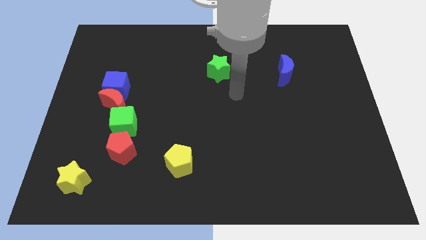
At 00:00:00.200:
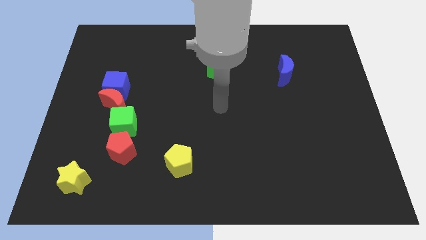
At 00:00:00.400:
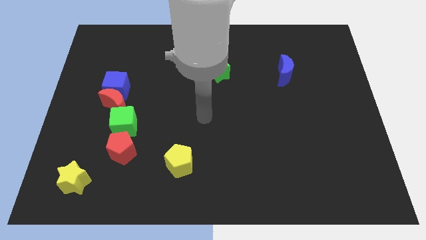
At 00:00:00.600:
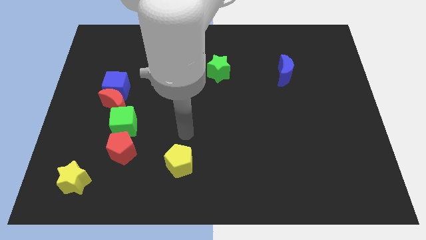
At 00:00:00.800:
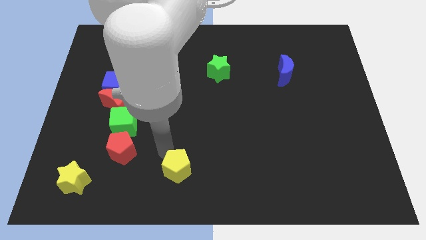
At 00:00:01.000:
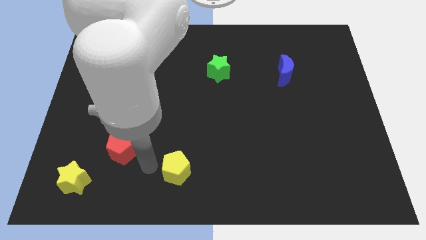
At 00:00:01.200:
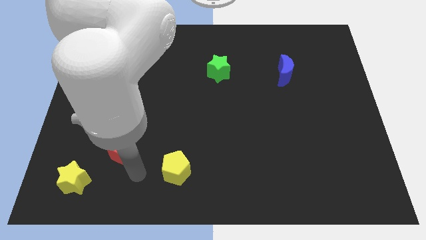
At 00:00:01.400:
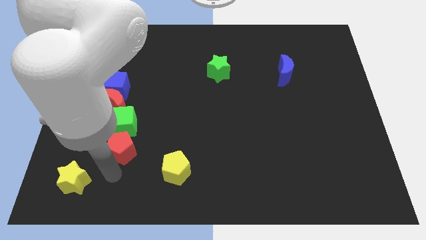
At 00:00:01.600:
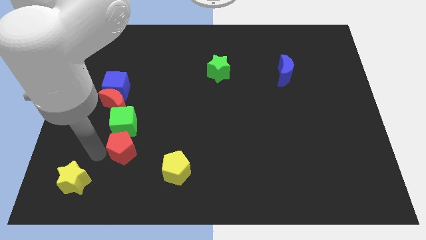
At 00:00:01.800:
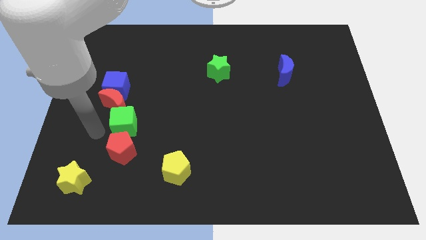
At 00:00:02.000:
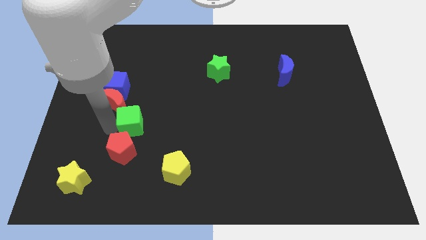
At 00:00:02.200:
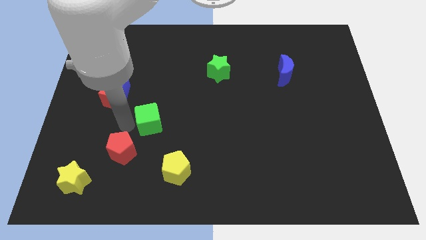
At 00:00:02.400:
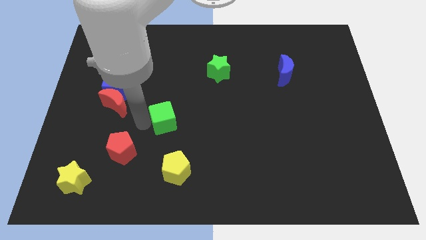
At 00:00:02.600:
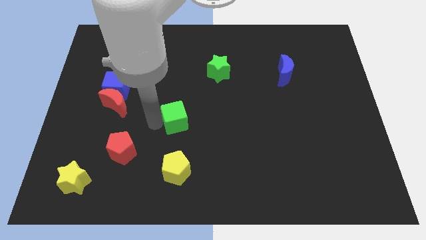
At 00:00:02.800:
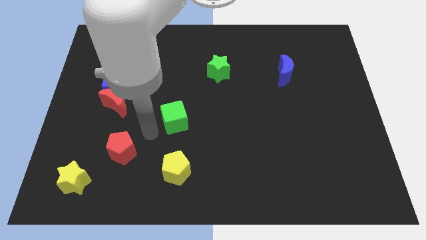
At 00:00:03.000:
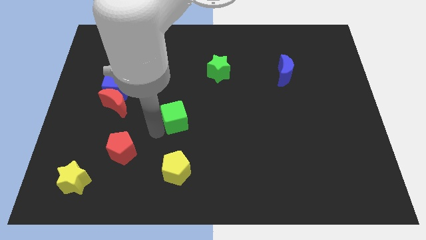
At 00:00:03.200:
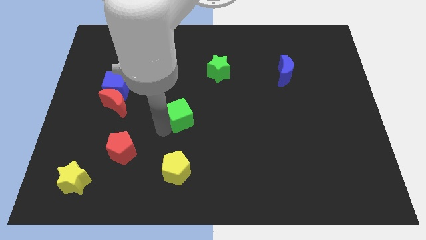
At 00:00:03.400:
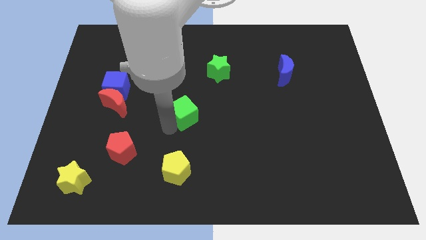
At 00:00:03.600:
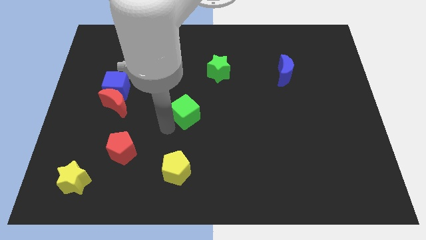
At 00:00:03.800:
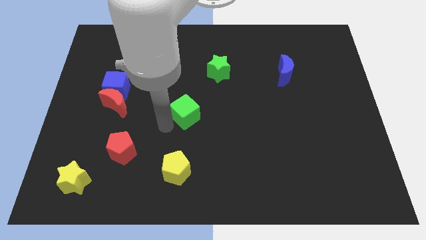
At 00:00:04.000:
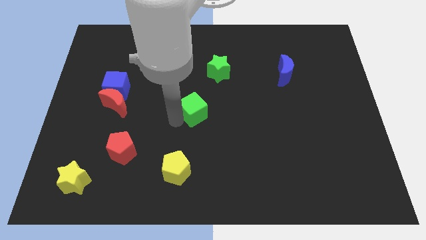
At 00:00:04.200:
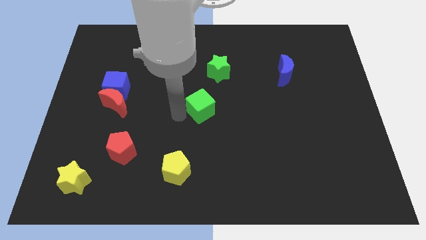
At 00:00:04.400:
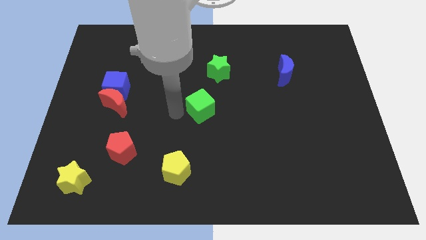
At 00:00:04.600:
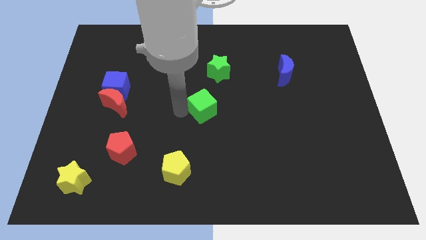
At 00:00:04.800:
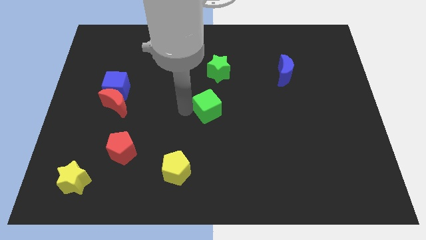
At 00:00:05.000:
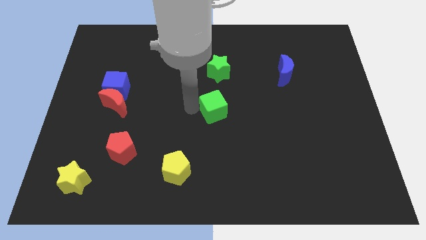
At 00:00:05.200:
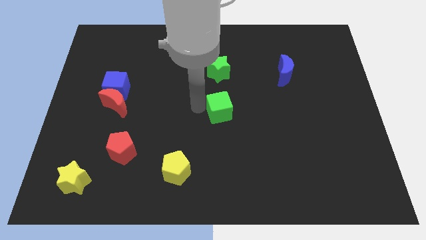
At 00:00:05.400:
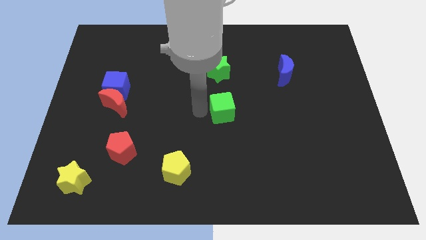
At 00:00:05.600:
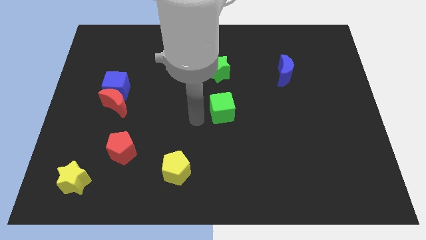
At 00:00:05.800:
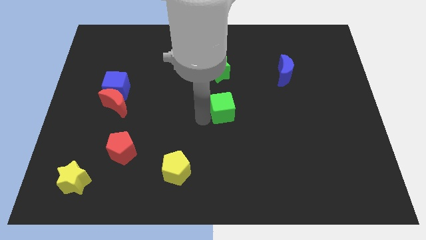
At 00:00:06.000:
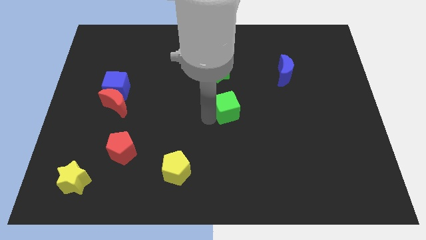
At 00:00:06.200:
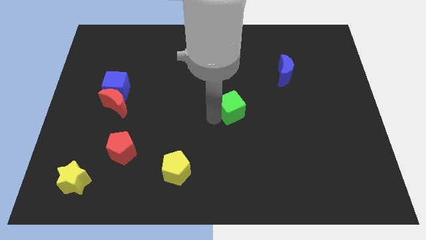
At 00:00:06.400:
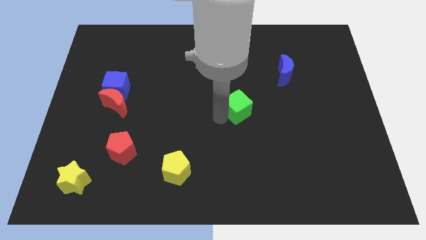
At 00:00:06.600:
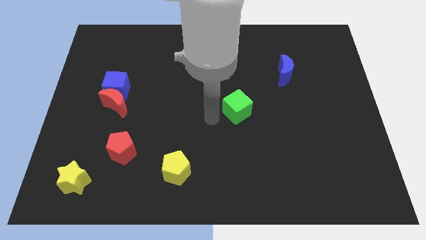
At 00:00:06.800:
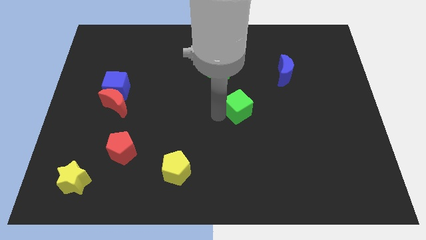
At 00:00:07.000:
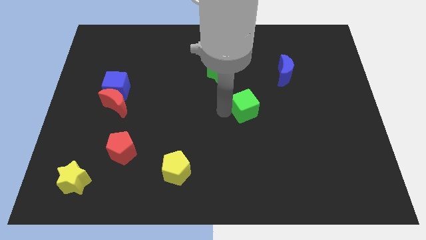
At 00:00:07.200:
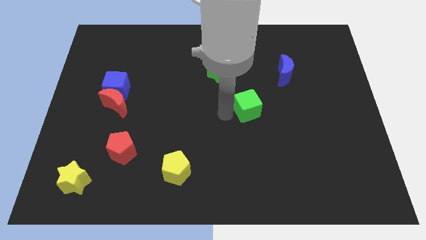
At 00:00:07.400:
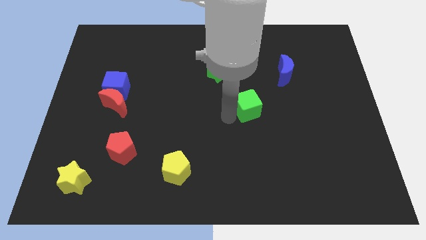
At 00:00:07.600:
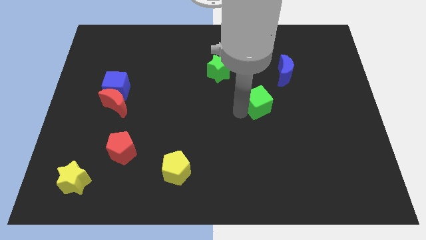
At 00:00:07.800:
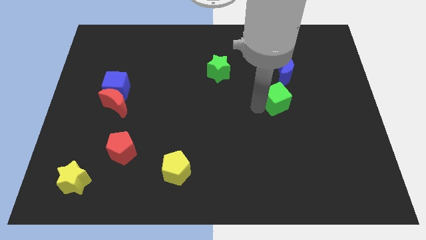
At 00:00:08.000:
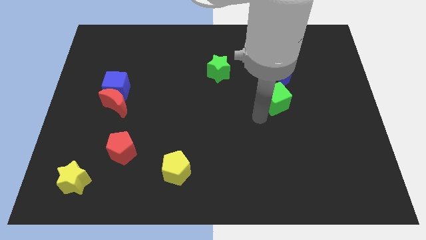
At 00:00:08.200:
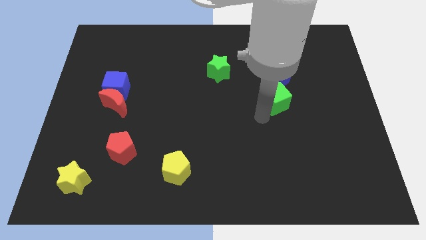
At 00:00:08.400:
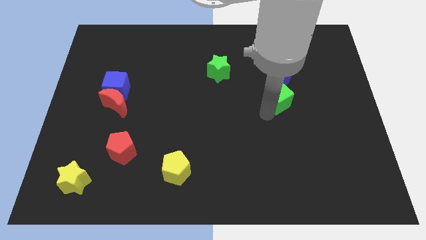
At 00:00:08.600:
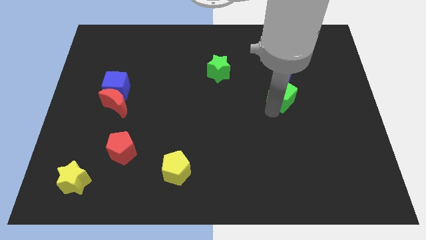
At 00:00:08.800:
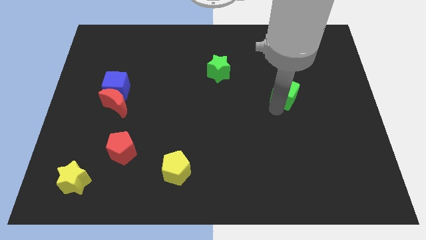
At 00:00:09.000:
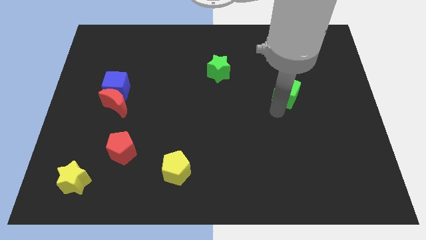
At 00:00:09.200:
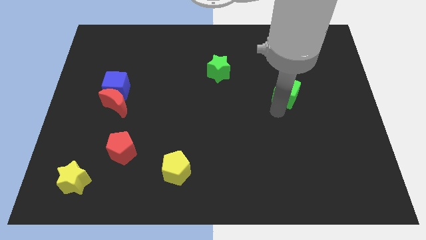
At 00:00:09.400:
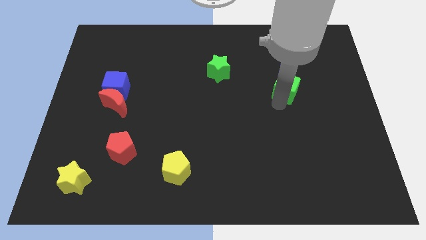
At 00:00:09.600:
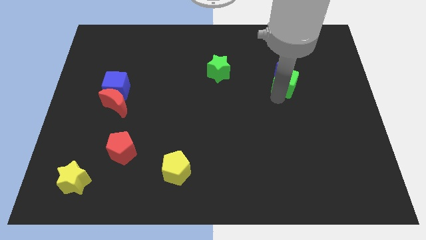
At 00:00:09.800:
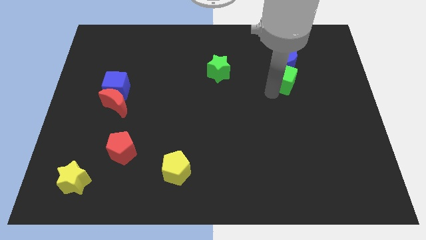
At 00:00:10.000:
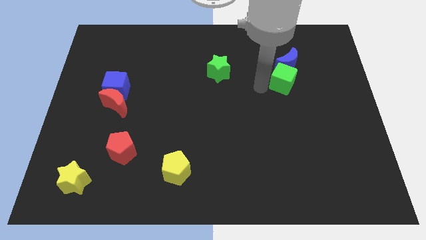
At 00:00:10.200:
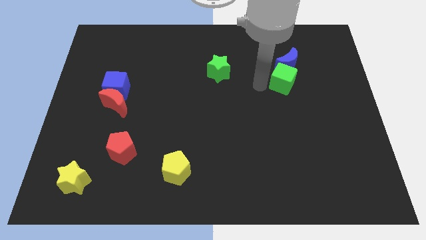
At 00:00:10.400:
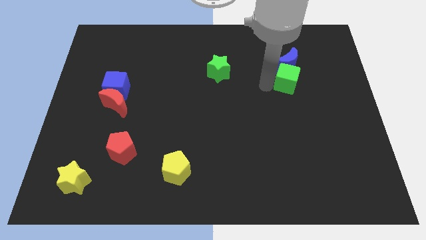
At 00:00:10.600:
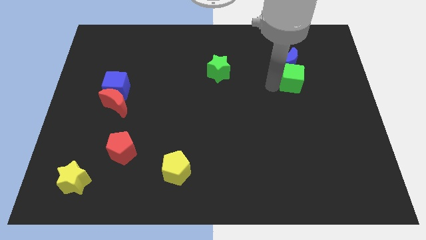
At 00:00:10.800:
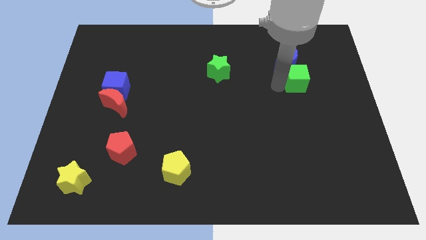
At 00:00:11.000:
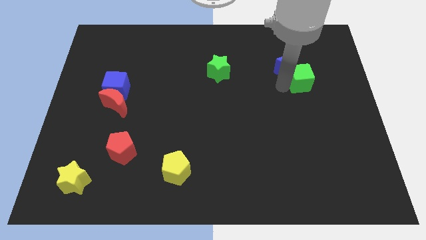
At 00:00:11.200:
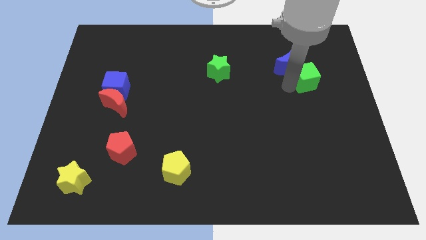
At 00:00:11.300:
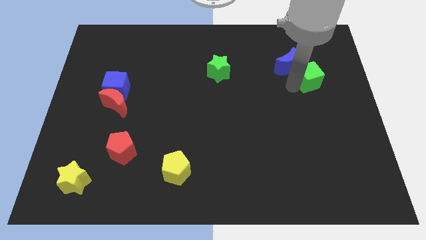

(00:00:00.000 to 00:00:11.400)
push the green cube to the right side of the blue moon

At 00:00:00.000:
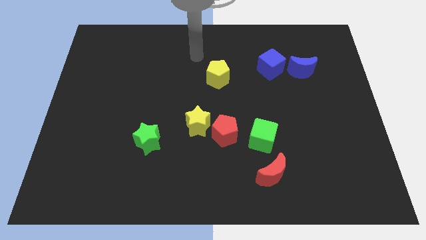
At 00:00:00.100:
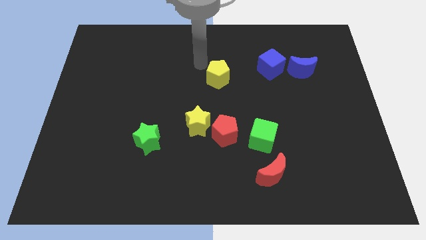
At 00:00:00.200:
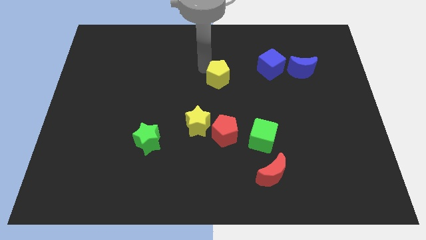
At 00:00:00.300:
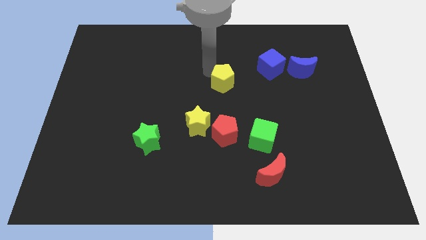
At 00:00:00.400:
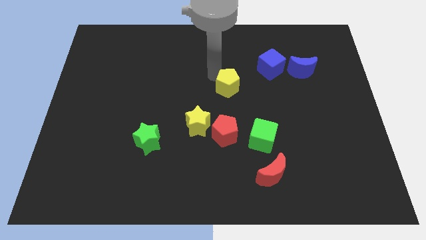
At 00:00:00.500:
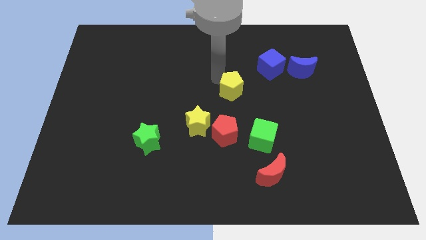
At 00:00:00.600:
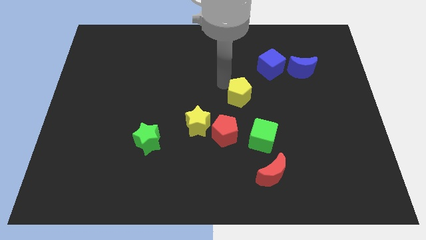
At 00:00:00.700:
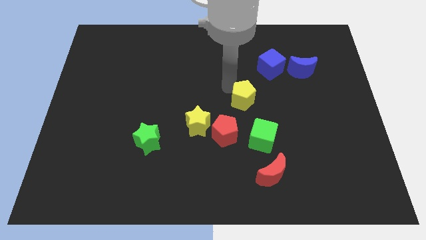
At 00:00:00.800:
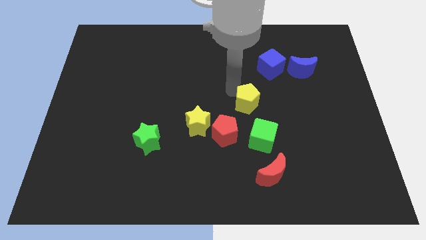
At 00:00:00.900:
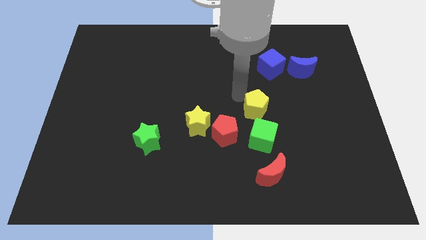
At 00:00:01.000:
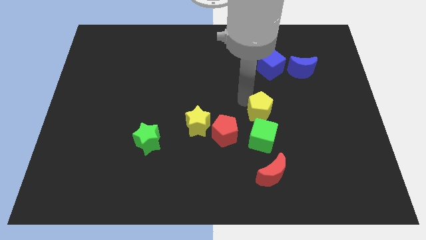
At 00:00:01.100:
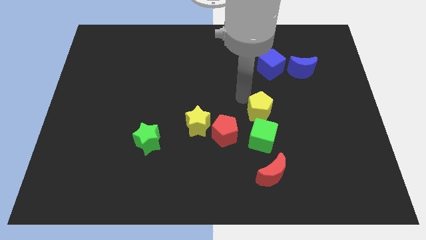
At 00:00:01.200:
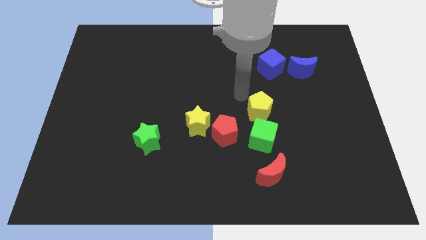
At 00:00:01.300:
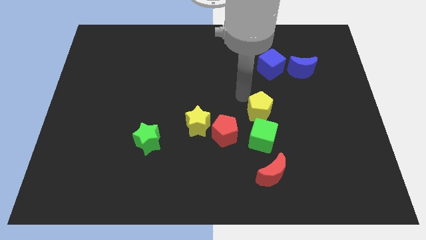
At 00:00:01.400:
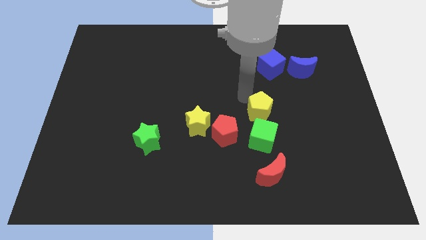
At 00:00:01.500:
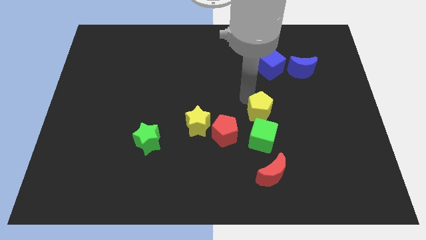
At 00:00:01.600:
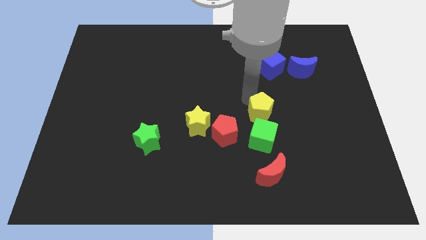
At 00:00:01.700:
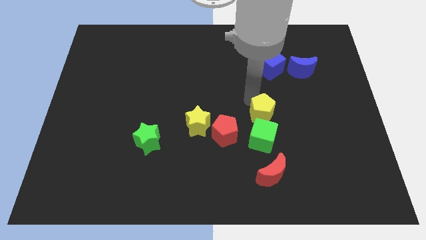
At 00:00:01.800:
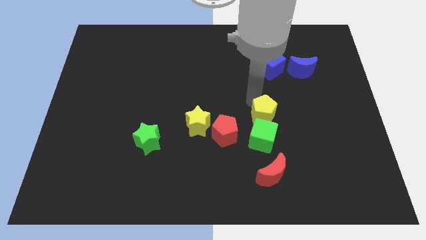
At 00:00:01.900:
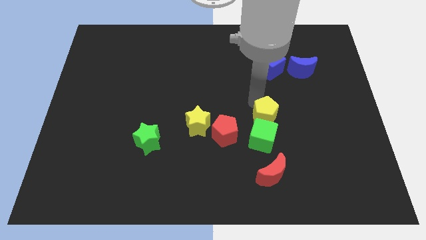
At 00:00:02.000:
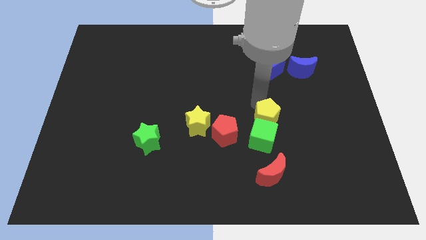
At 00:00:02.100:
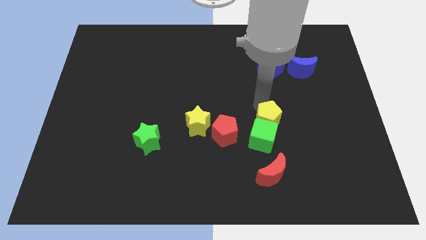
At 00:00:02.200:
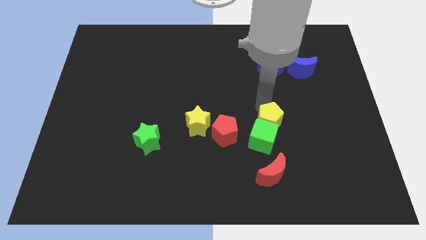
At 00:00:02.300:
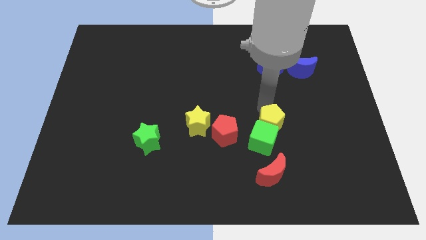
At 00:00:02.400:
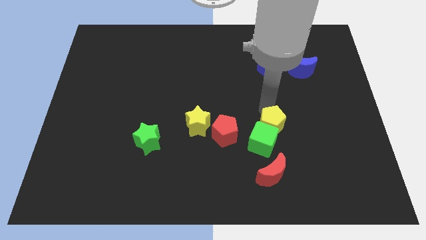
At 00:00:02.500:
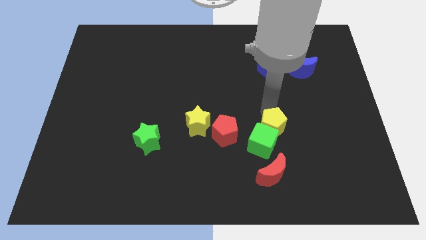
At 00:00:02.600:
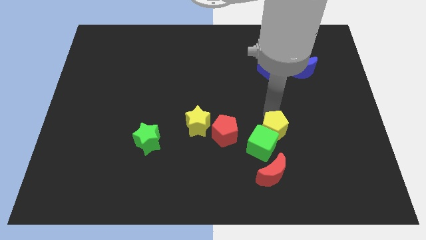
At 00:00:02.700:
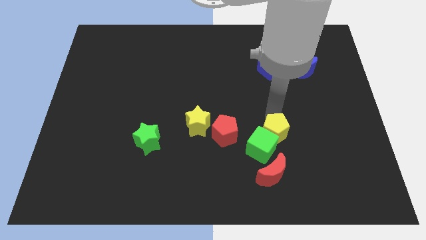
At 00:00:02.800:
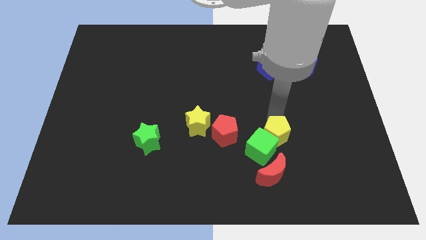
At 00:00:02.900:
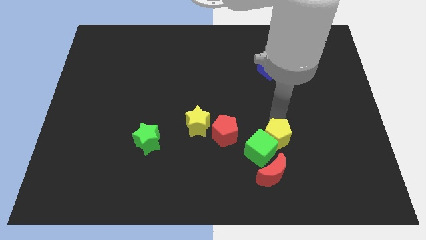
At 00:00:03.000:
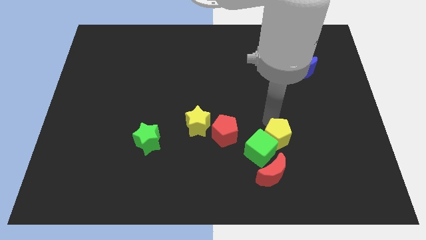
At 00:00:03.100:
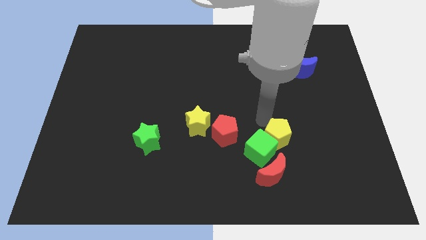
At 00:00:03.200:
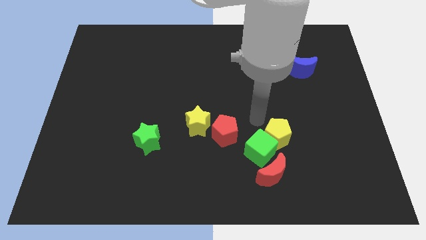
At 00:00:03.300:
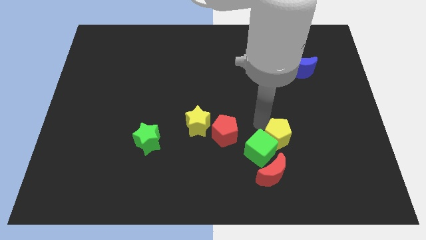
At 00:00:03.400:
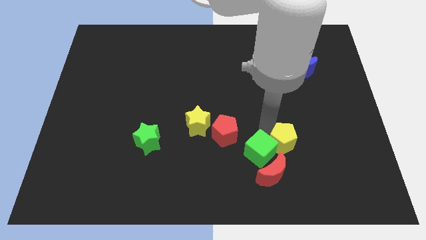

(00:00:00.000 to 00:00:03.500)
move the yellow pentagon to the top right side of the red moon
